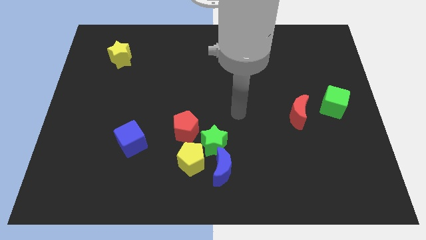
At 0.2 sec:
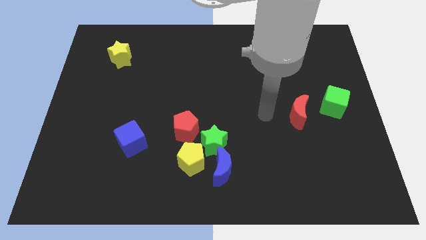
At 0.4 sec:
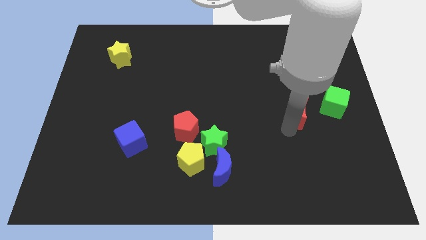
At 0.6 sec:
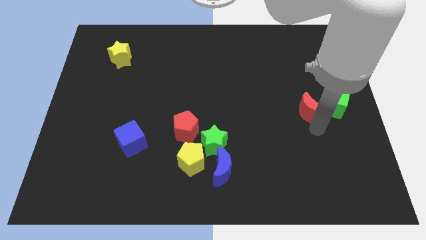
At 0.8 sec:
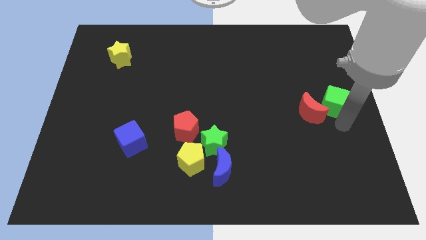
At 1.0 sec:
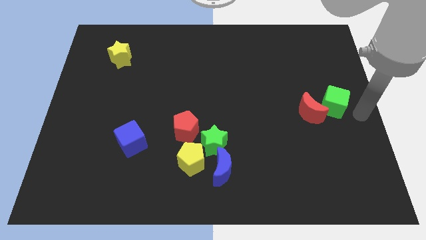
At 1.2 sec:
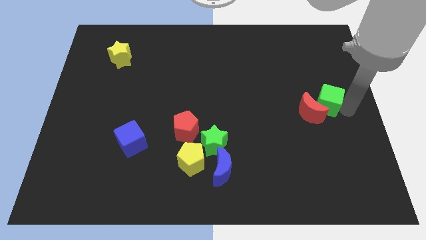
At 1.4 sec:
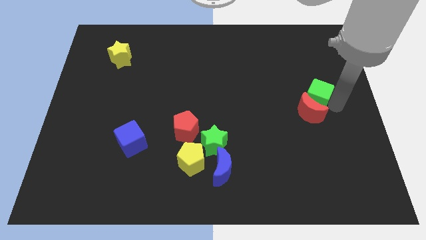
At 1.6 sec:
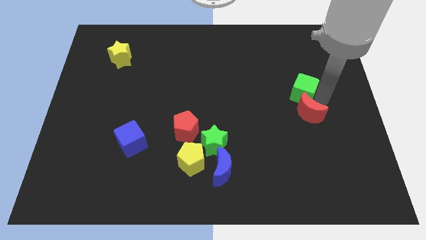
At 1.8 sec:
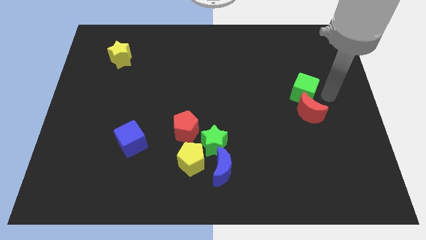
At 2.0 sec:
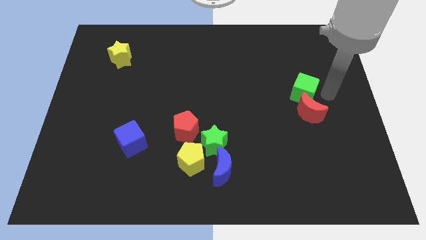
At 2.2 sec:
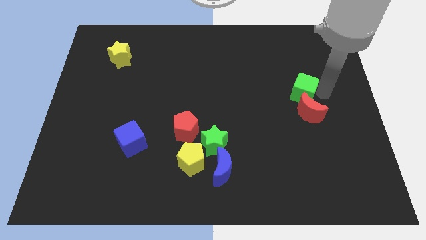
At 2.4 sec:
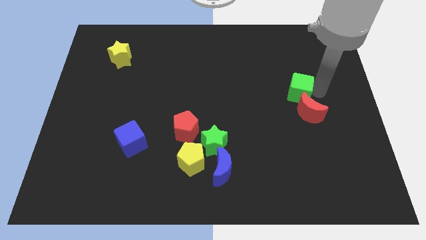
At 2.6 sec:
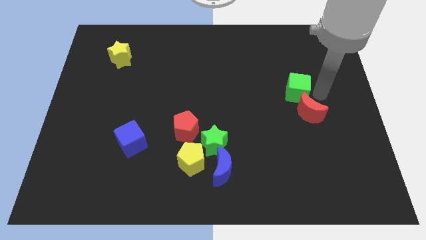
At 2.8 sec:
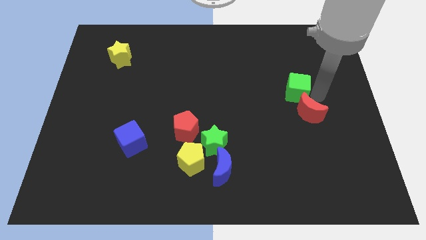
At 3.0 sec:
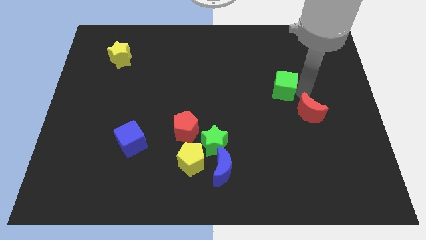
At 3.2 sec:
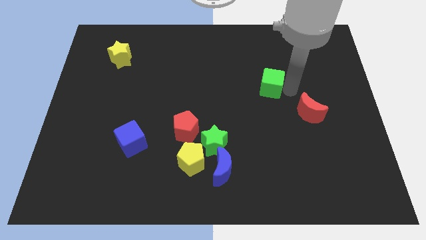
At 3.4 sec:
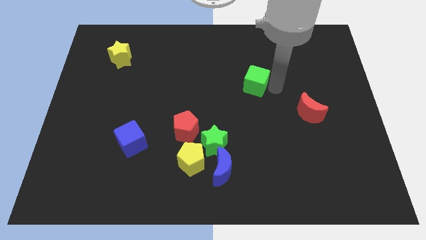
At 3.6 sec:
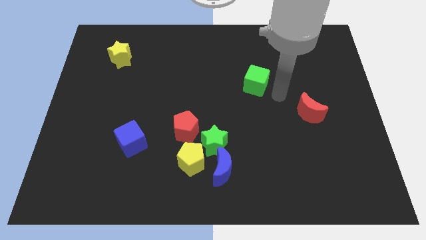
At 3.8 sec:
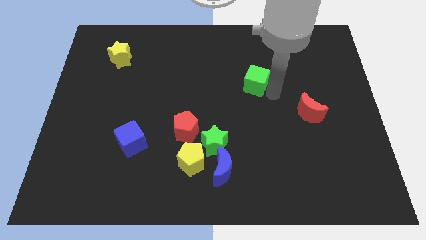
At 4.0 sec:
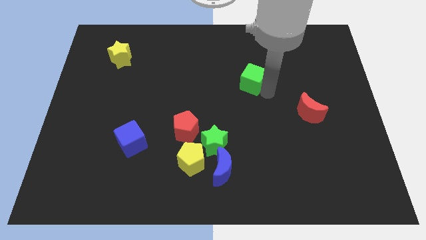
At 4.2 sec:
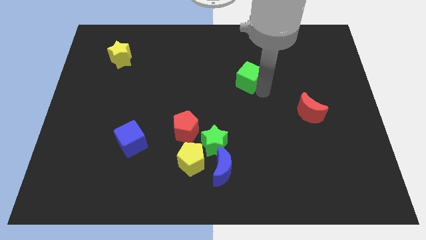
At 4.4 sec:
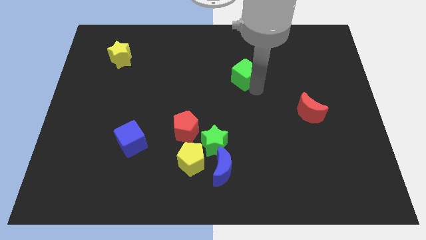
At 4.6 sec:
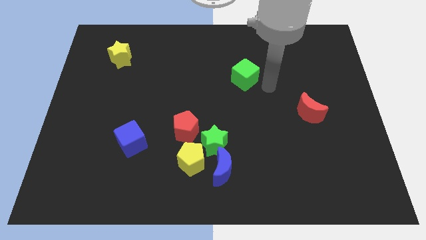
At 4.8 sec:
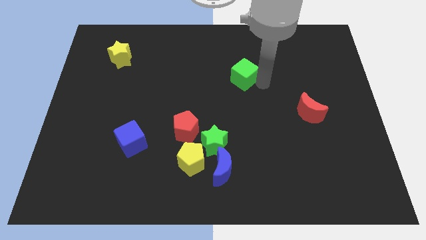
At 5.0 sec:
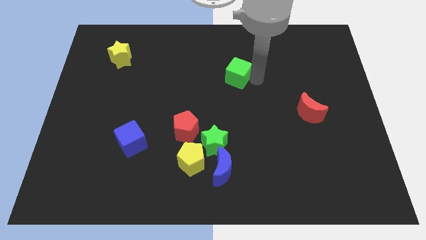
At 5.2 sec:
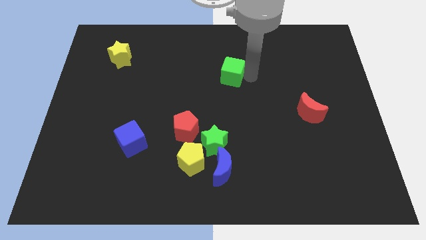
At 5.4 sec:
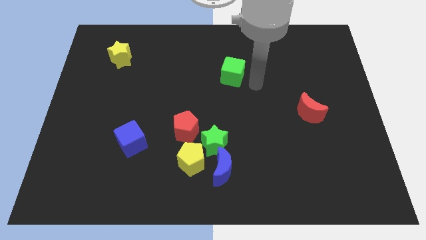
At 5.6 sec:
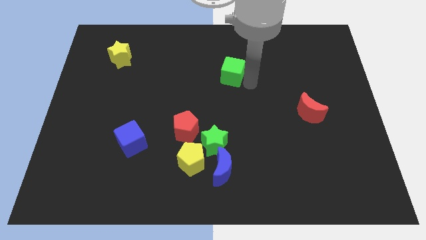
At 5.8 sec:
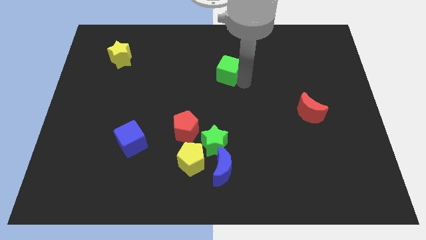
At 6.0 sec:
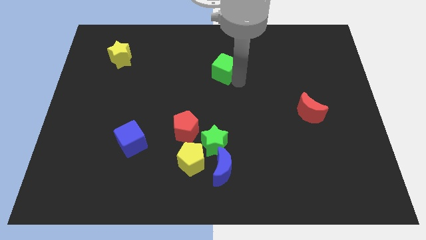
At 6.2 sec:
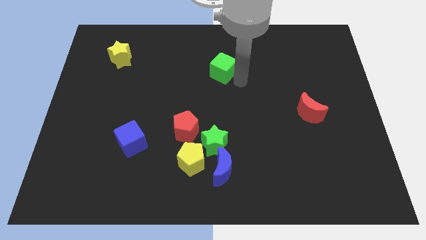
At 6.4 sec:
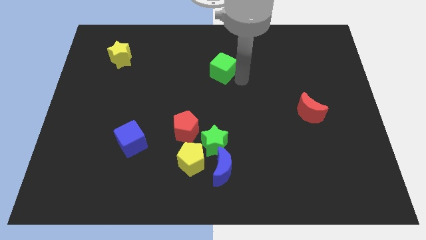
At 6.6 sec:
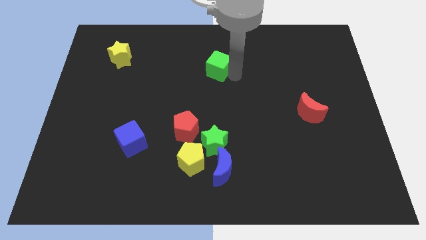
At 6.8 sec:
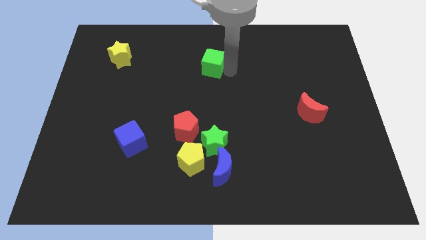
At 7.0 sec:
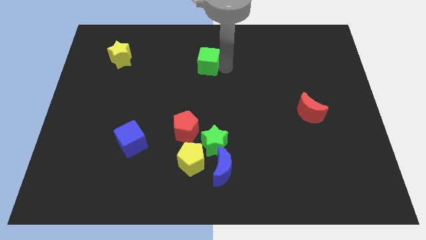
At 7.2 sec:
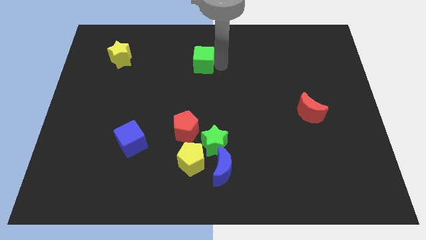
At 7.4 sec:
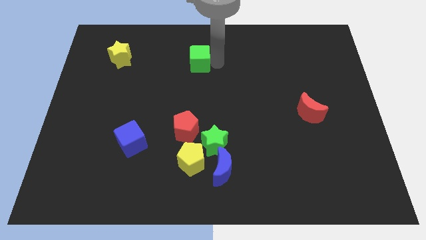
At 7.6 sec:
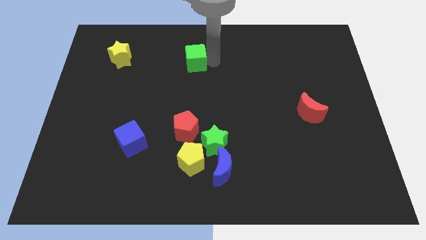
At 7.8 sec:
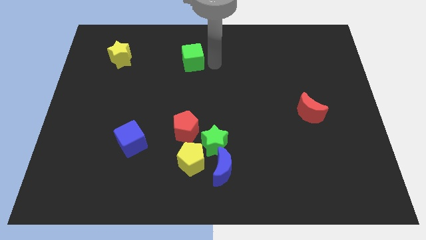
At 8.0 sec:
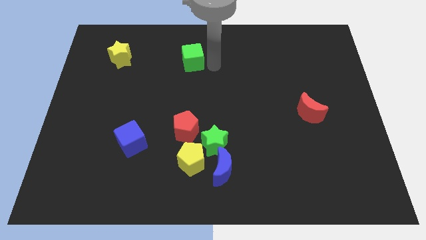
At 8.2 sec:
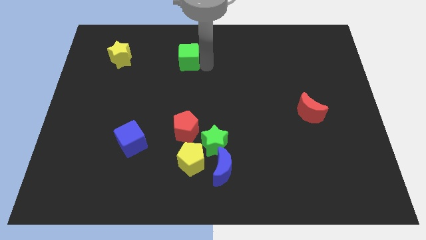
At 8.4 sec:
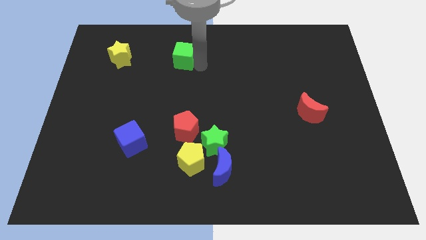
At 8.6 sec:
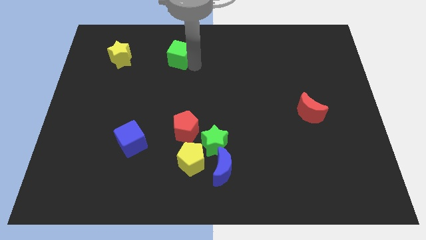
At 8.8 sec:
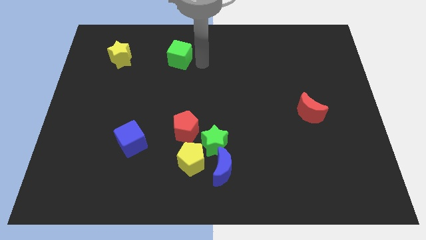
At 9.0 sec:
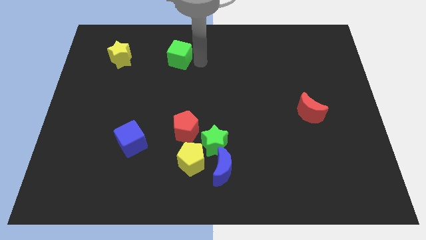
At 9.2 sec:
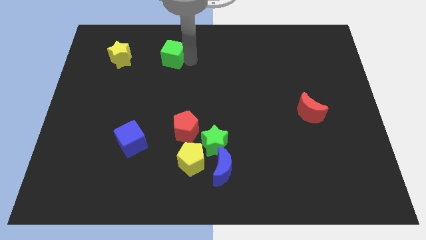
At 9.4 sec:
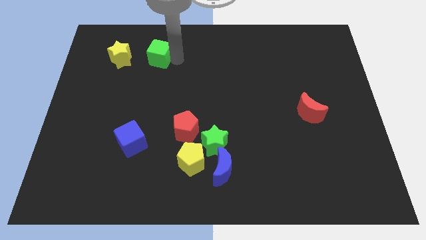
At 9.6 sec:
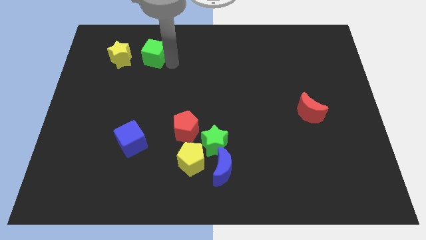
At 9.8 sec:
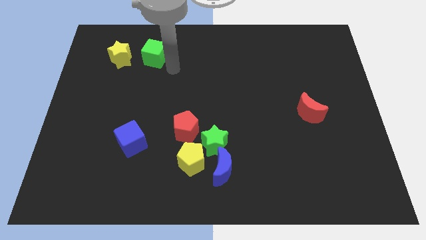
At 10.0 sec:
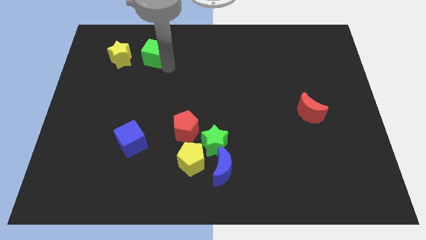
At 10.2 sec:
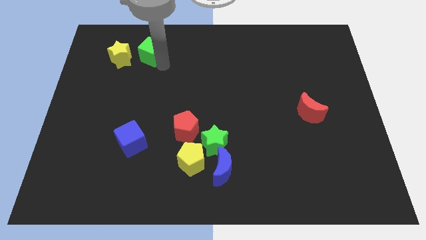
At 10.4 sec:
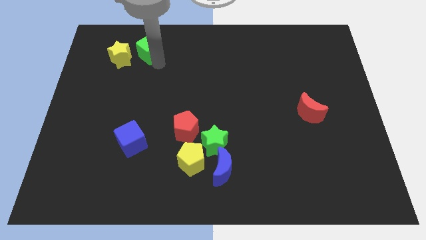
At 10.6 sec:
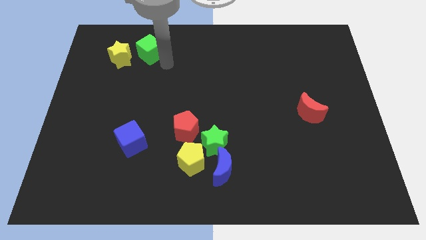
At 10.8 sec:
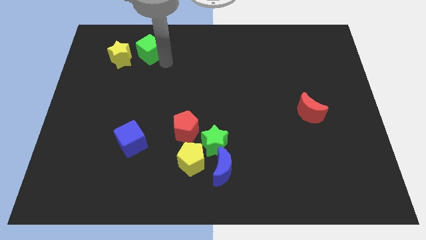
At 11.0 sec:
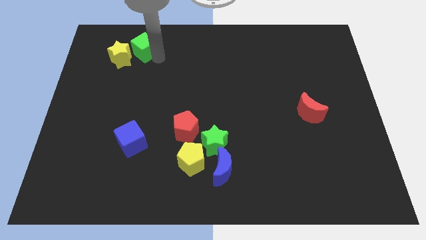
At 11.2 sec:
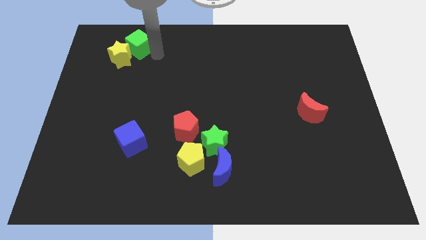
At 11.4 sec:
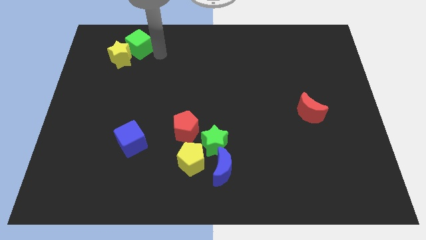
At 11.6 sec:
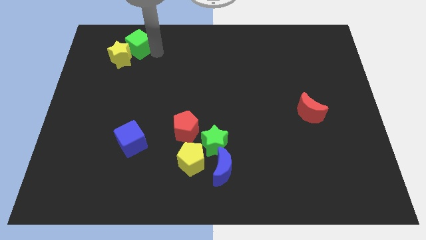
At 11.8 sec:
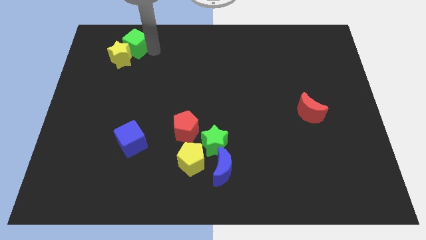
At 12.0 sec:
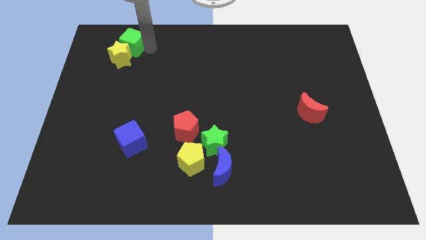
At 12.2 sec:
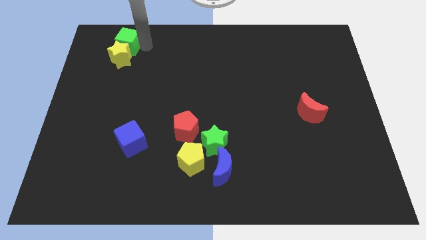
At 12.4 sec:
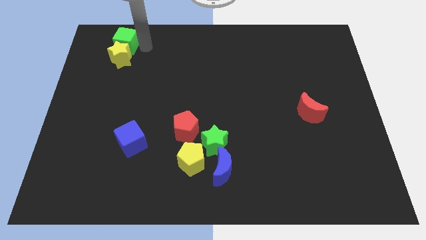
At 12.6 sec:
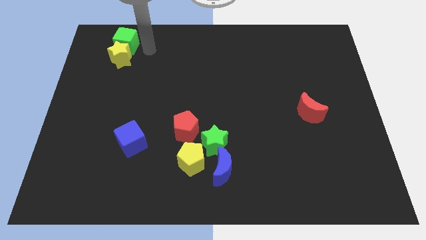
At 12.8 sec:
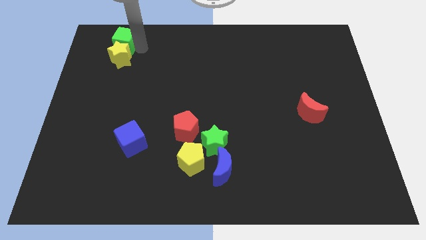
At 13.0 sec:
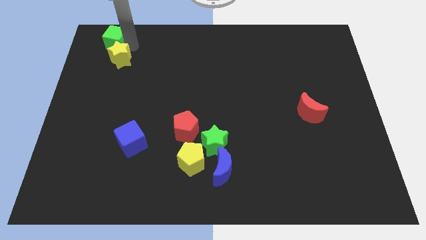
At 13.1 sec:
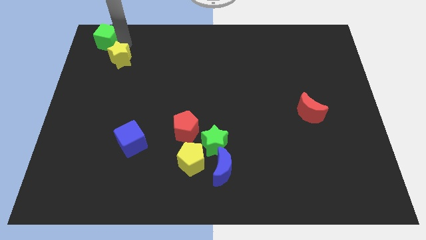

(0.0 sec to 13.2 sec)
put the green cube to the top left corner
